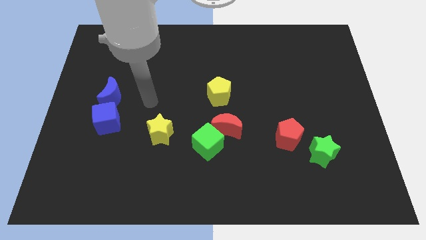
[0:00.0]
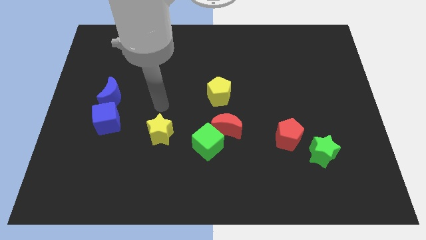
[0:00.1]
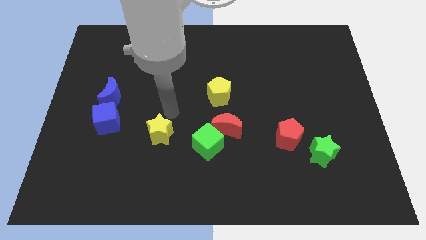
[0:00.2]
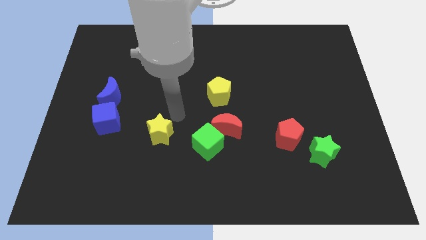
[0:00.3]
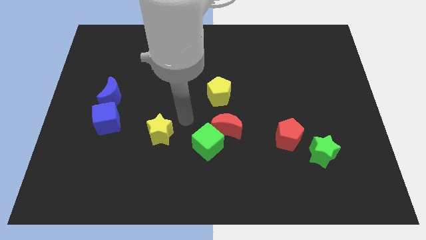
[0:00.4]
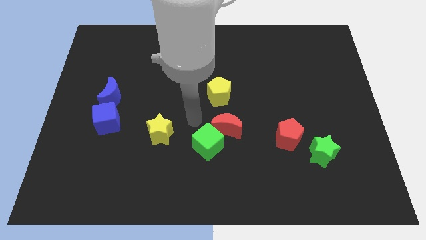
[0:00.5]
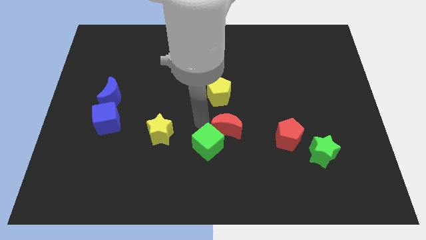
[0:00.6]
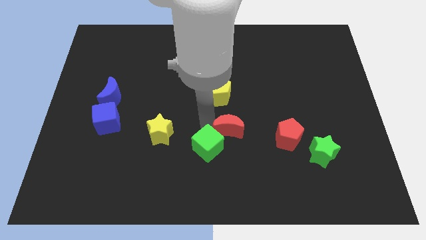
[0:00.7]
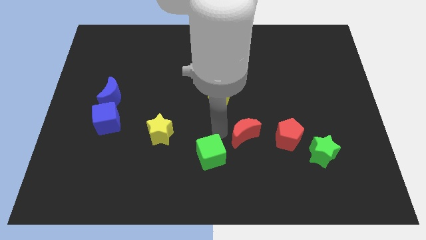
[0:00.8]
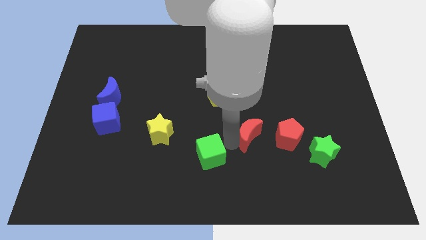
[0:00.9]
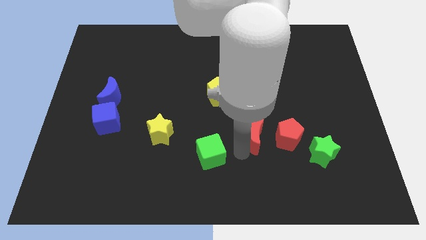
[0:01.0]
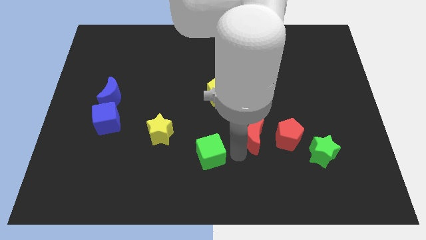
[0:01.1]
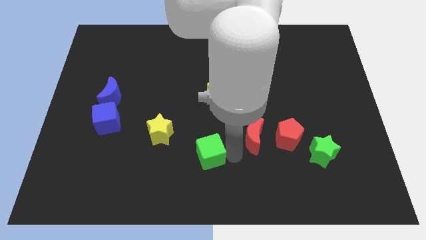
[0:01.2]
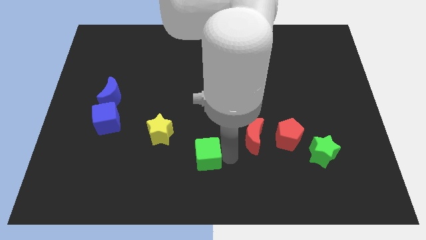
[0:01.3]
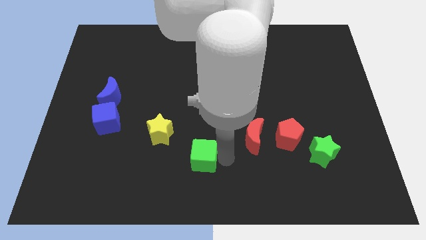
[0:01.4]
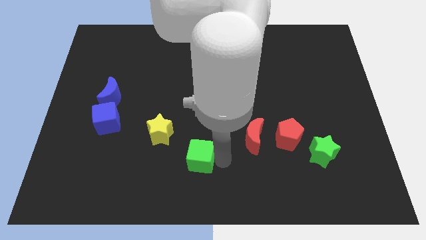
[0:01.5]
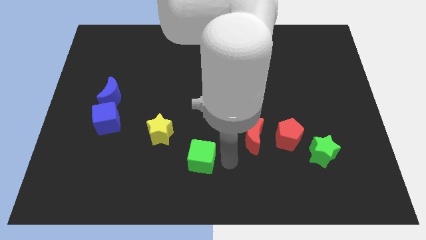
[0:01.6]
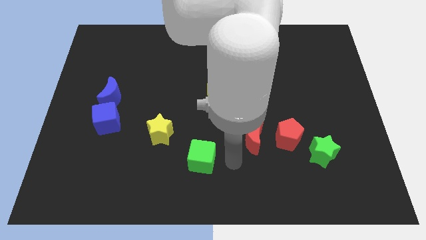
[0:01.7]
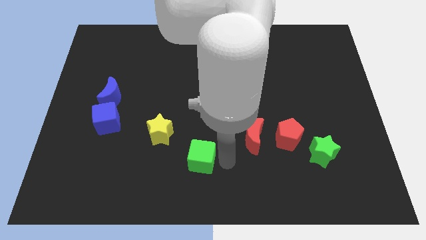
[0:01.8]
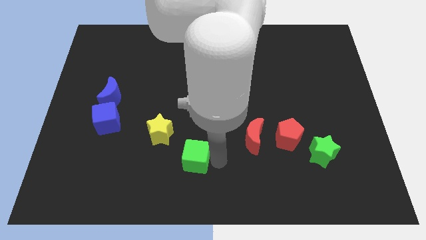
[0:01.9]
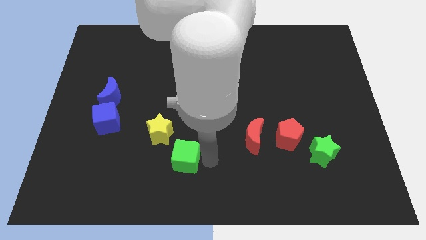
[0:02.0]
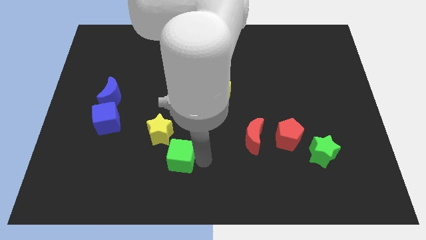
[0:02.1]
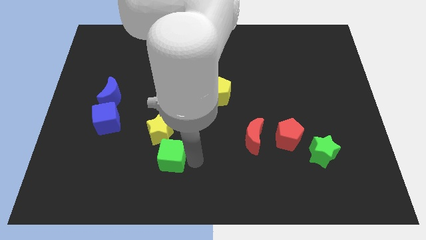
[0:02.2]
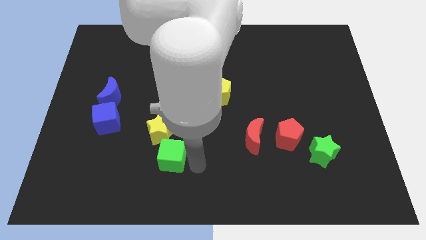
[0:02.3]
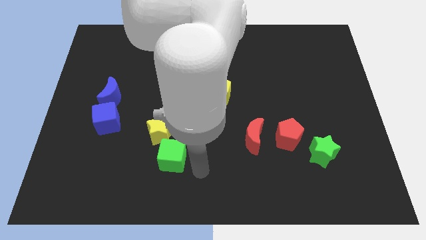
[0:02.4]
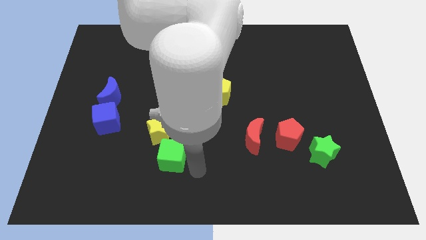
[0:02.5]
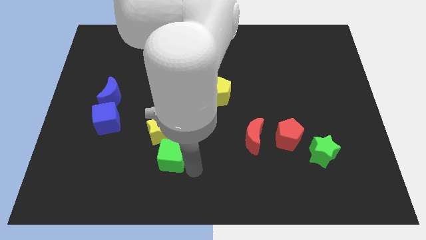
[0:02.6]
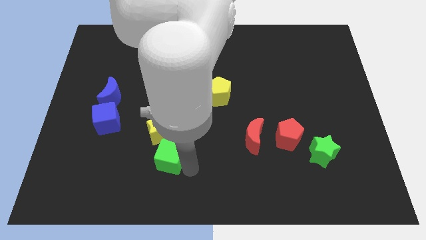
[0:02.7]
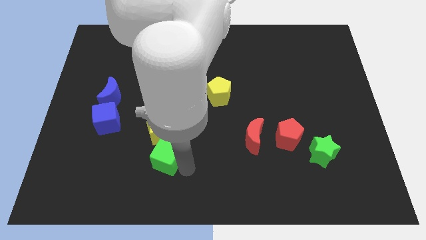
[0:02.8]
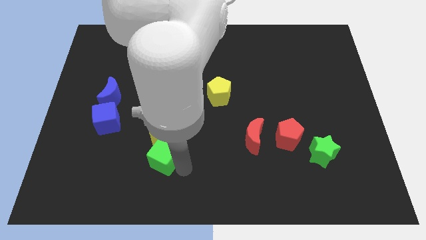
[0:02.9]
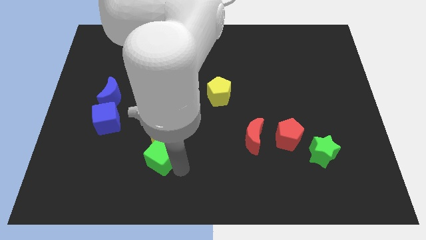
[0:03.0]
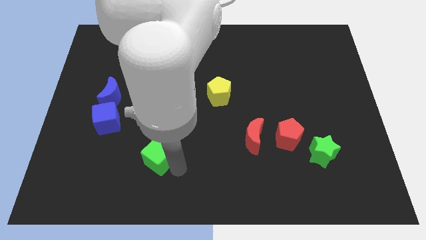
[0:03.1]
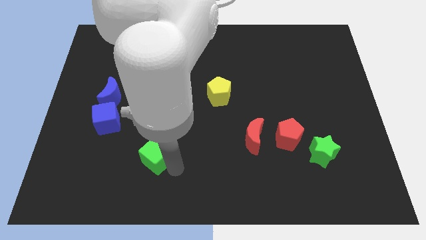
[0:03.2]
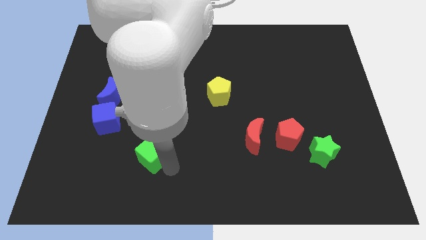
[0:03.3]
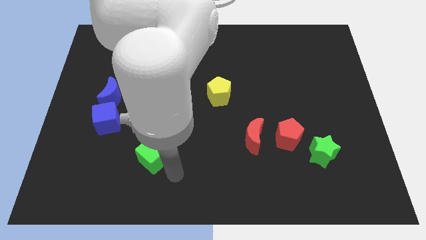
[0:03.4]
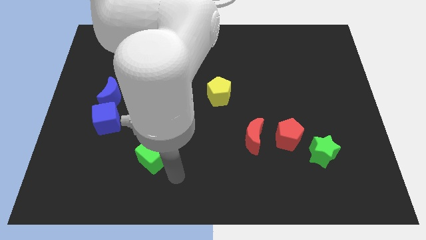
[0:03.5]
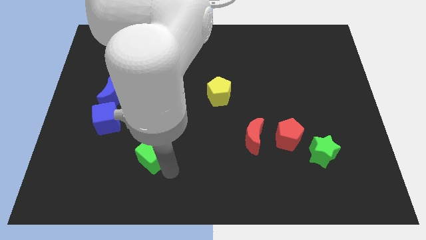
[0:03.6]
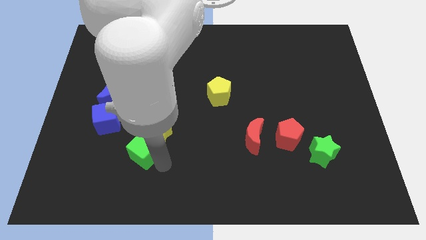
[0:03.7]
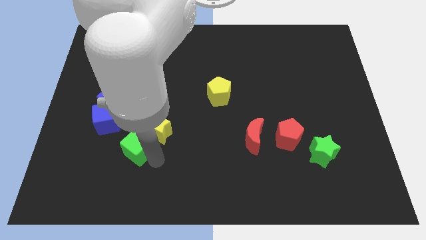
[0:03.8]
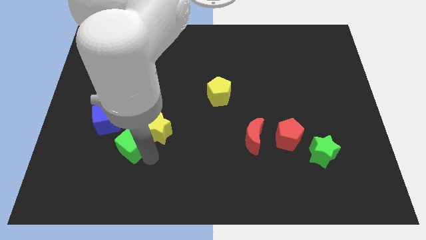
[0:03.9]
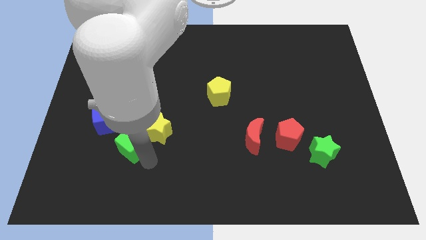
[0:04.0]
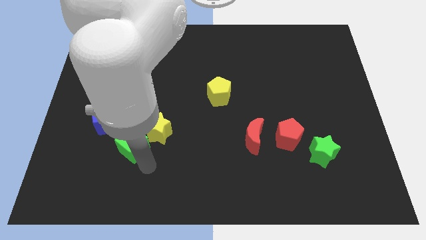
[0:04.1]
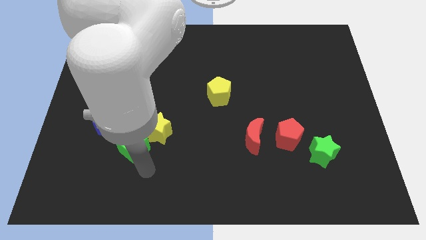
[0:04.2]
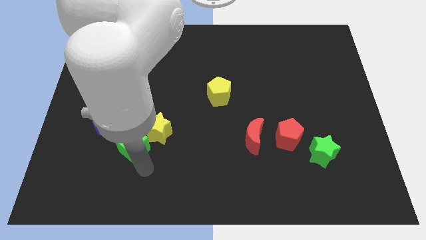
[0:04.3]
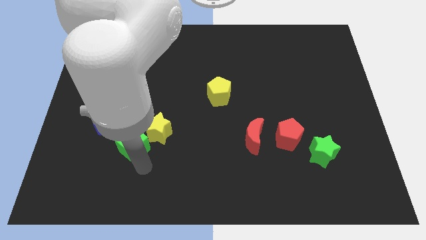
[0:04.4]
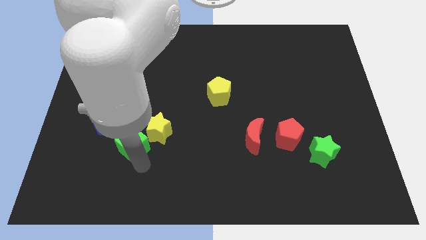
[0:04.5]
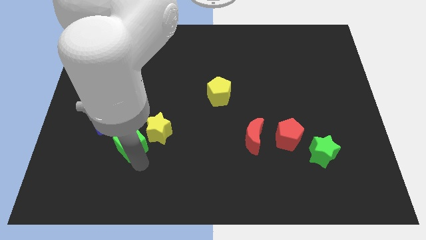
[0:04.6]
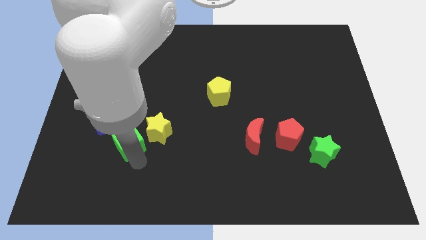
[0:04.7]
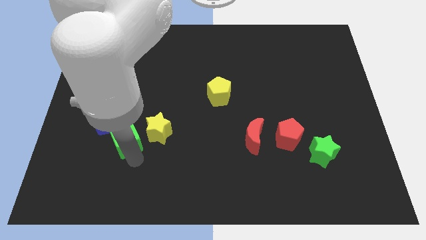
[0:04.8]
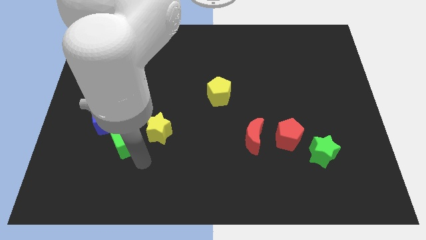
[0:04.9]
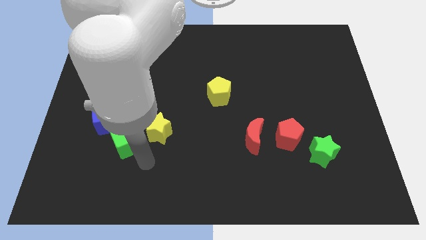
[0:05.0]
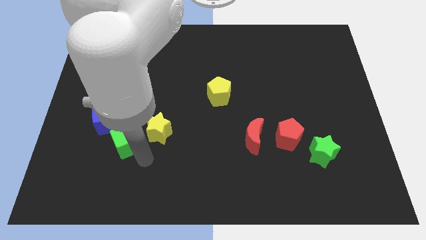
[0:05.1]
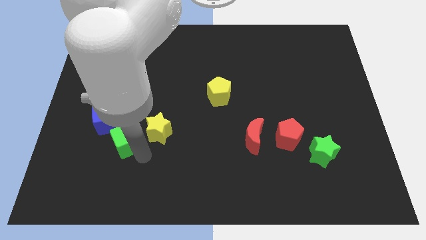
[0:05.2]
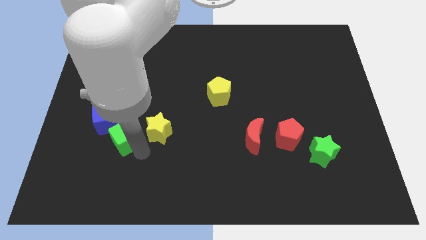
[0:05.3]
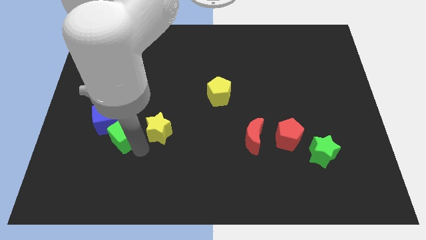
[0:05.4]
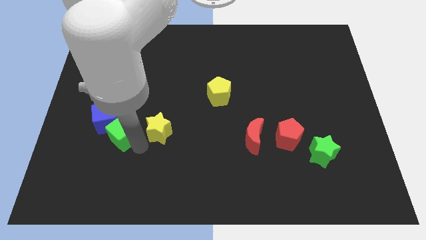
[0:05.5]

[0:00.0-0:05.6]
put the green cube next to the blue cube

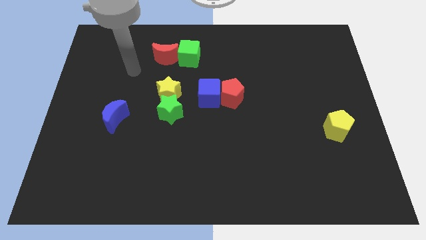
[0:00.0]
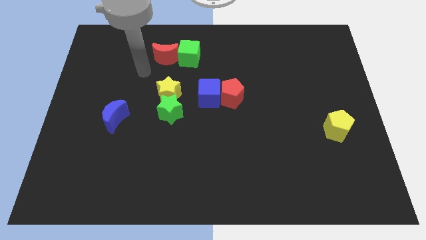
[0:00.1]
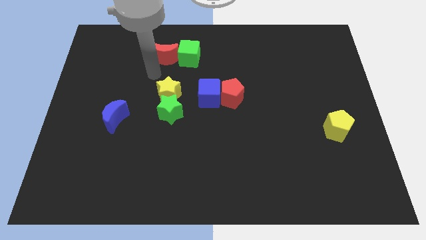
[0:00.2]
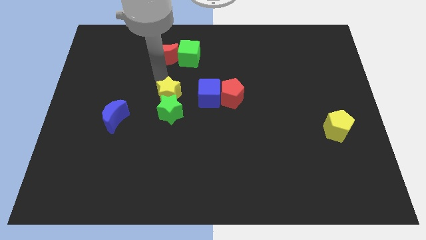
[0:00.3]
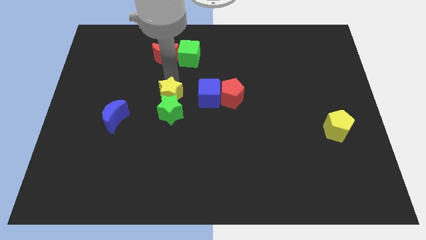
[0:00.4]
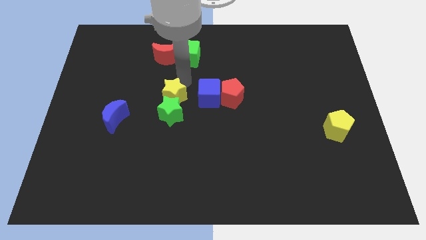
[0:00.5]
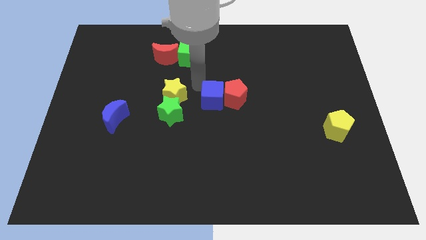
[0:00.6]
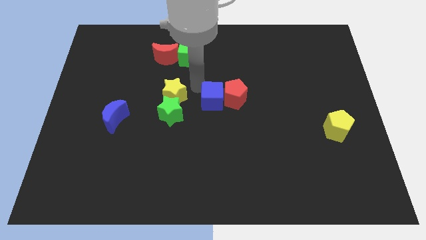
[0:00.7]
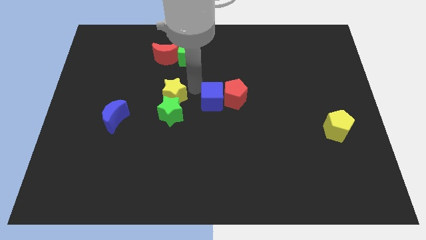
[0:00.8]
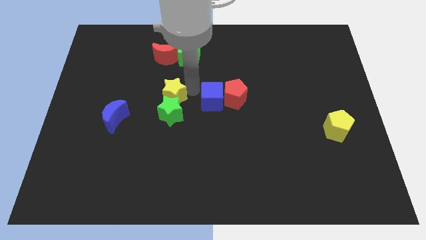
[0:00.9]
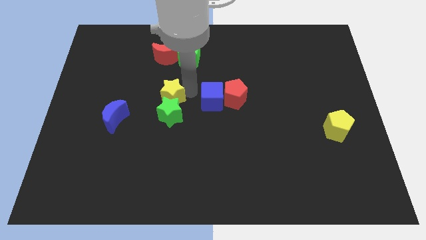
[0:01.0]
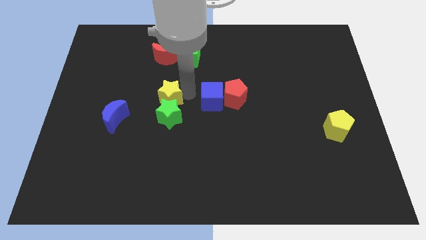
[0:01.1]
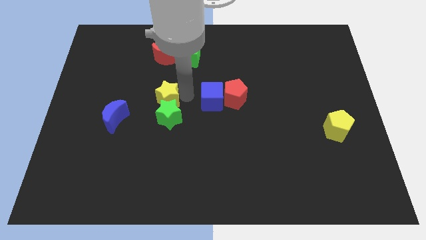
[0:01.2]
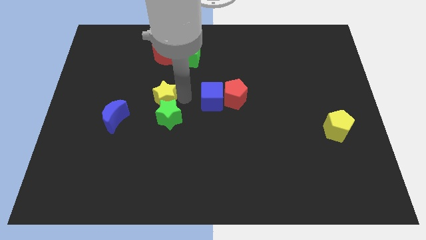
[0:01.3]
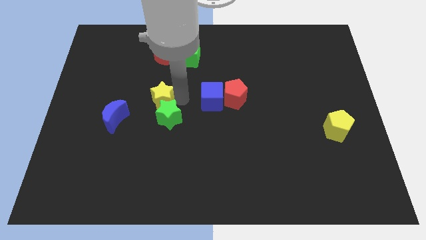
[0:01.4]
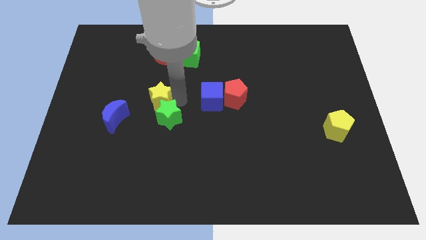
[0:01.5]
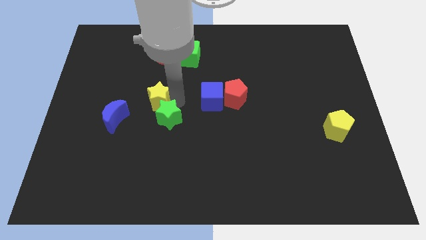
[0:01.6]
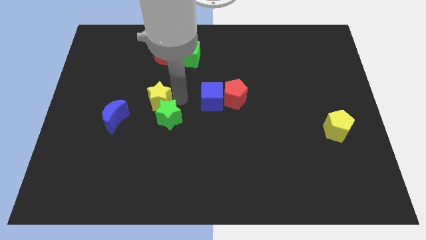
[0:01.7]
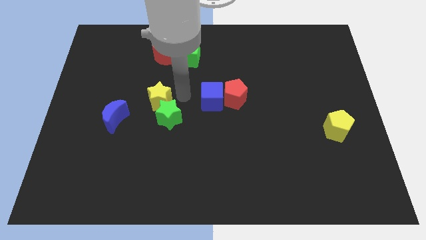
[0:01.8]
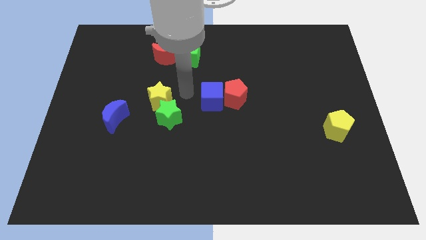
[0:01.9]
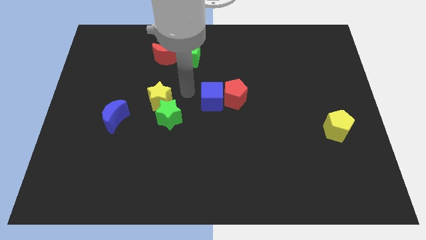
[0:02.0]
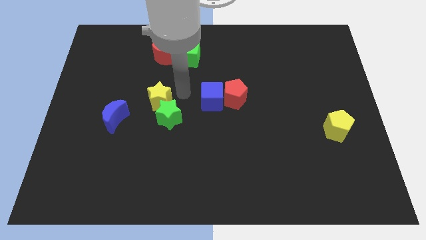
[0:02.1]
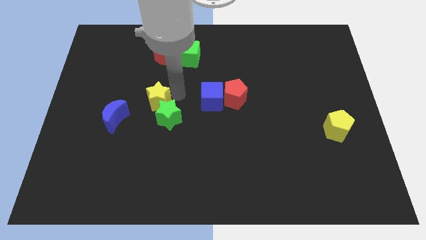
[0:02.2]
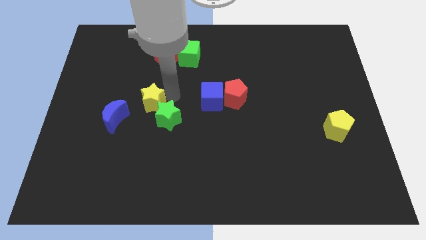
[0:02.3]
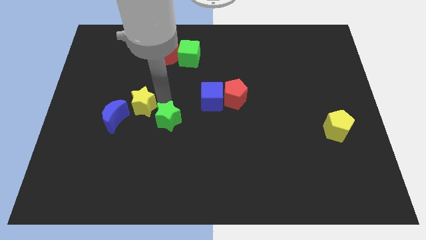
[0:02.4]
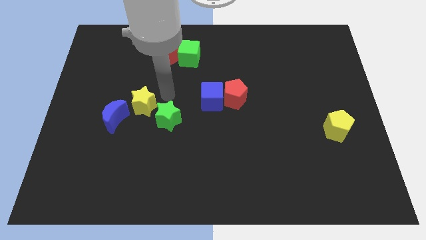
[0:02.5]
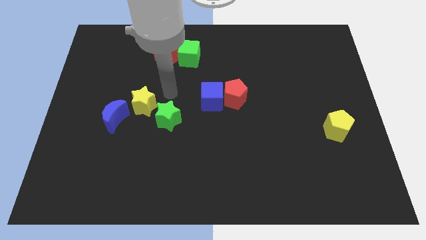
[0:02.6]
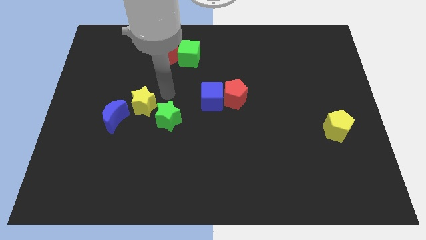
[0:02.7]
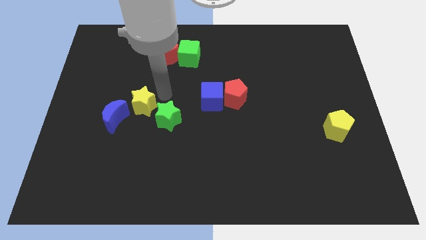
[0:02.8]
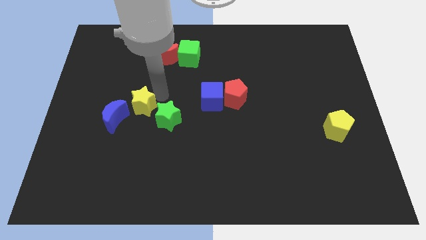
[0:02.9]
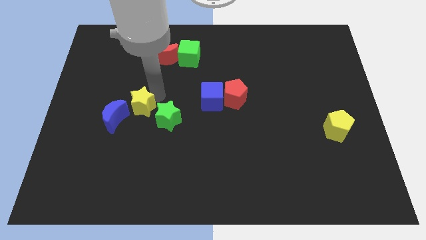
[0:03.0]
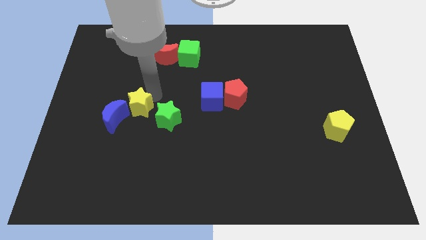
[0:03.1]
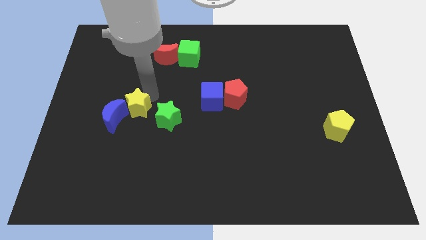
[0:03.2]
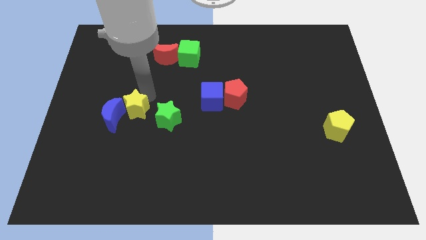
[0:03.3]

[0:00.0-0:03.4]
put the yellow star to the blue moon
